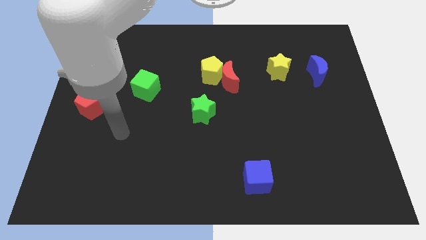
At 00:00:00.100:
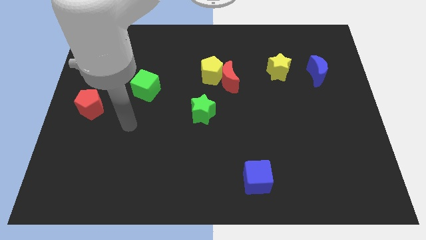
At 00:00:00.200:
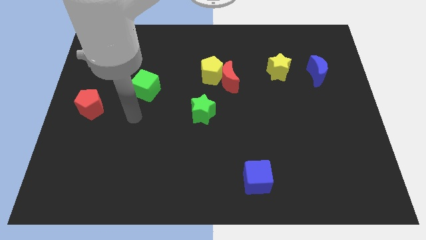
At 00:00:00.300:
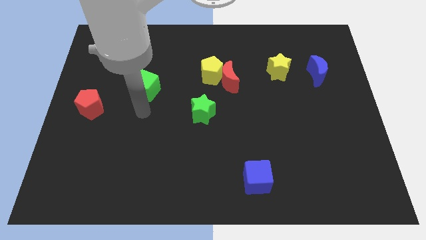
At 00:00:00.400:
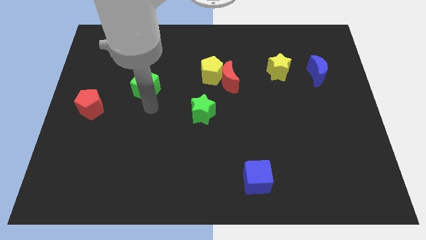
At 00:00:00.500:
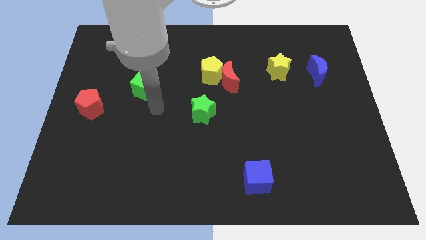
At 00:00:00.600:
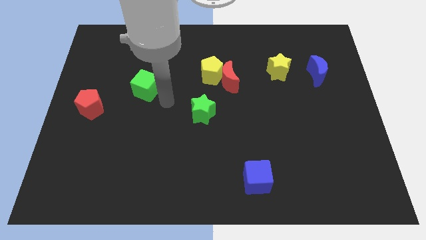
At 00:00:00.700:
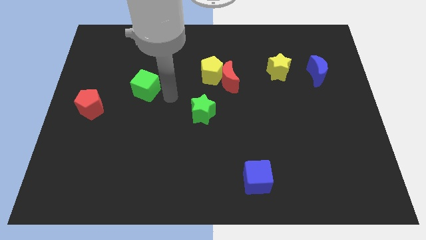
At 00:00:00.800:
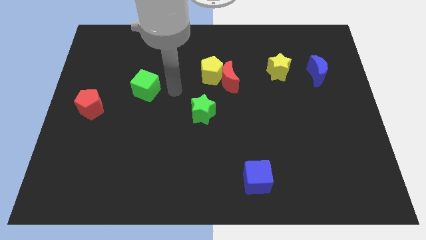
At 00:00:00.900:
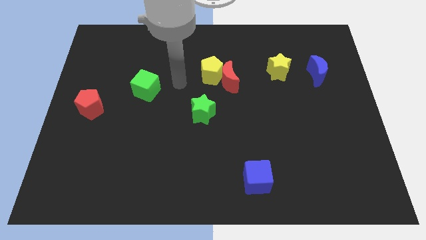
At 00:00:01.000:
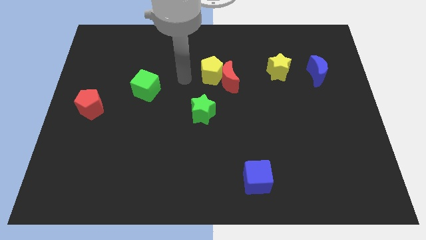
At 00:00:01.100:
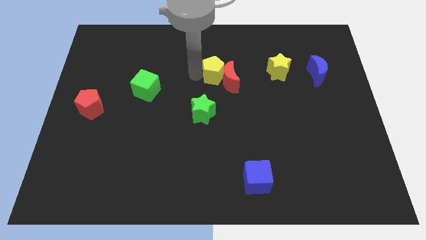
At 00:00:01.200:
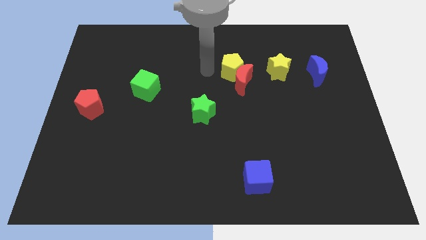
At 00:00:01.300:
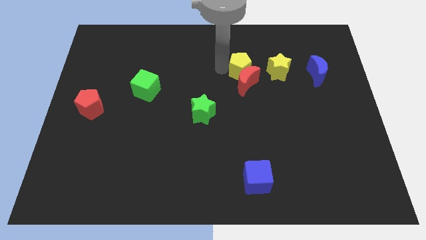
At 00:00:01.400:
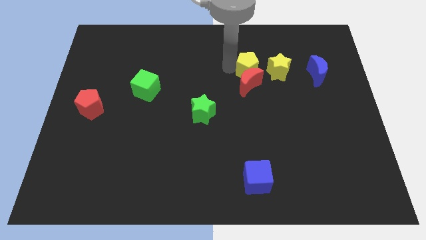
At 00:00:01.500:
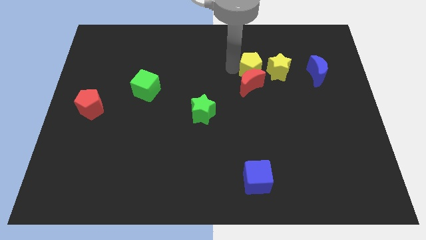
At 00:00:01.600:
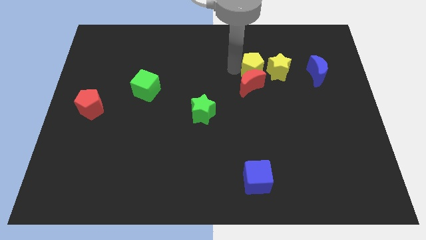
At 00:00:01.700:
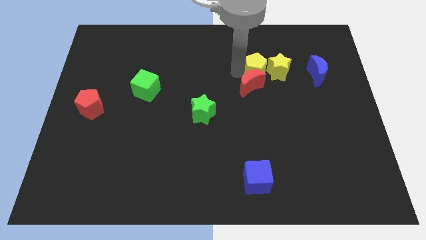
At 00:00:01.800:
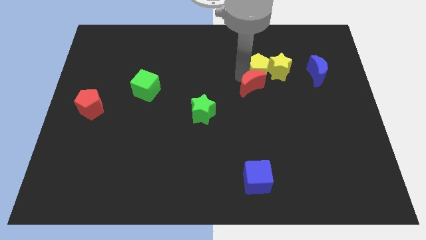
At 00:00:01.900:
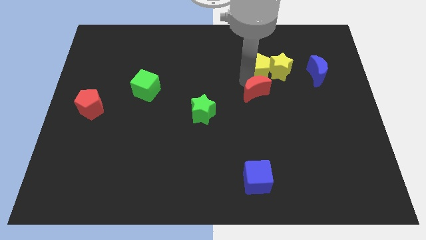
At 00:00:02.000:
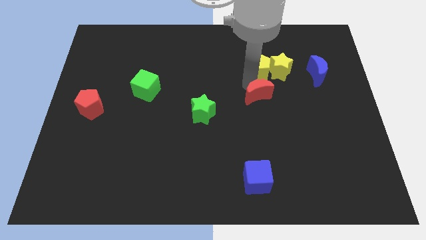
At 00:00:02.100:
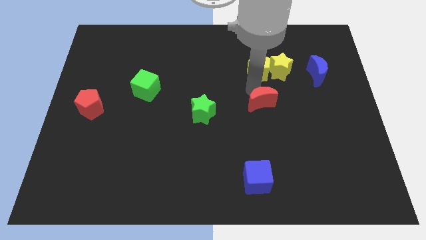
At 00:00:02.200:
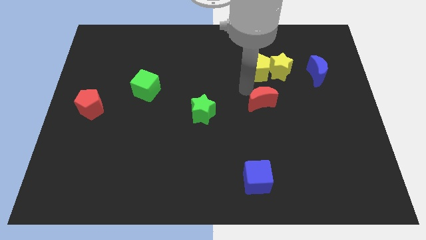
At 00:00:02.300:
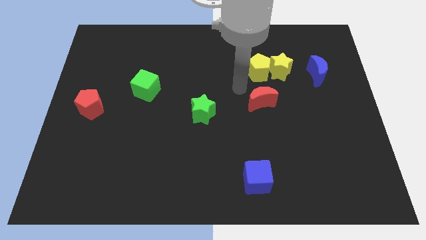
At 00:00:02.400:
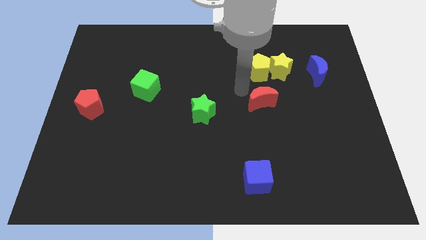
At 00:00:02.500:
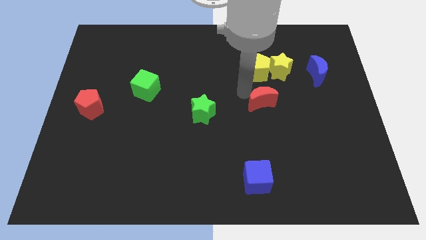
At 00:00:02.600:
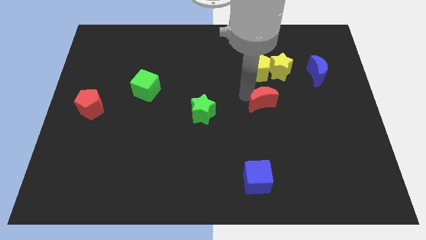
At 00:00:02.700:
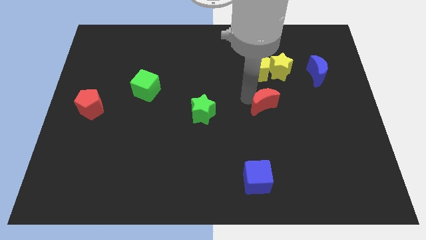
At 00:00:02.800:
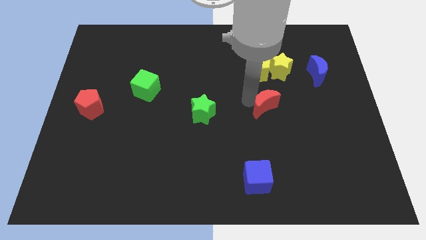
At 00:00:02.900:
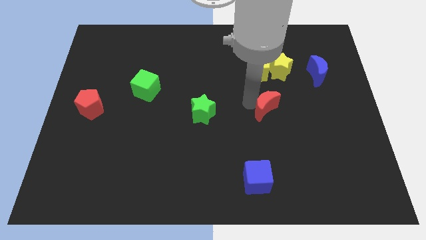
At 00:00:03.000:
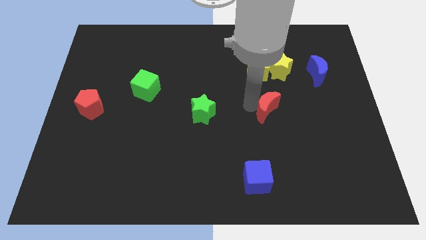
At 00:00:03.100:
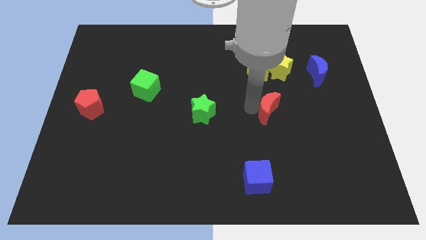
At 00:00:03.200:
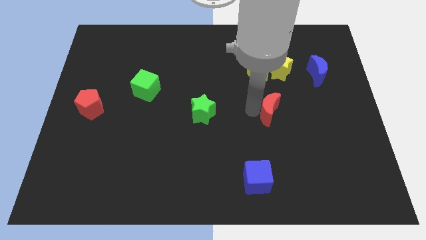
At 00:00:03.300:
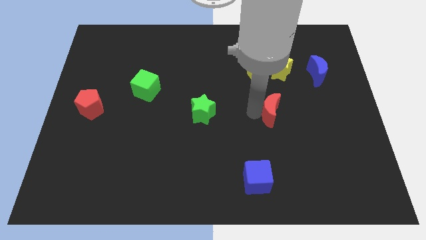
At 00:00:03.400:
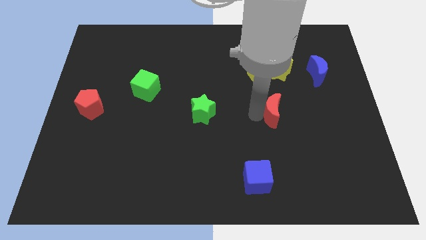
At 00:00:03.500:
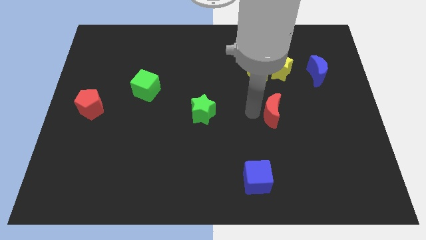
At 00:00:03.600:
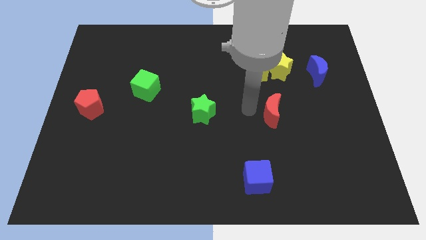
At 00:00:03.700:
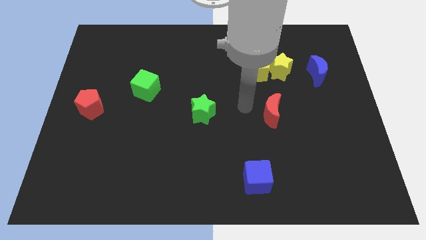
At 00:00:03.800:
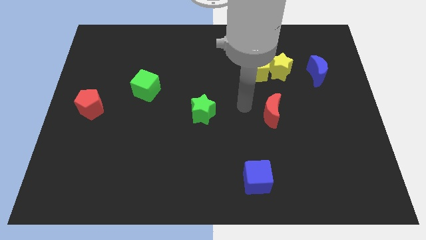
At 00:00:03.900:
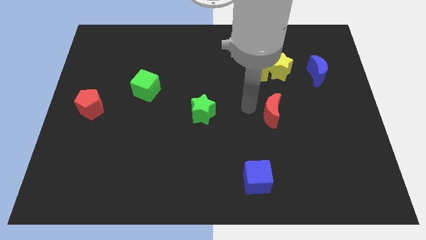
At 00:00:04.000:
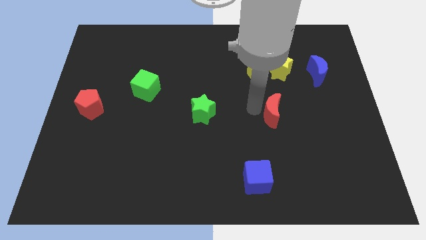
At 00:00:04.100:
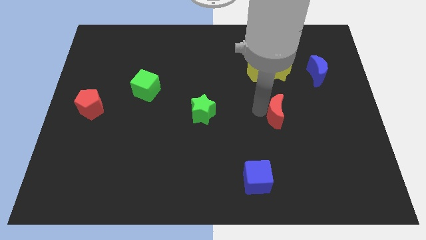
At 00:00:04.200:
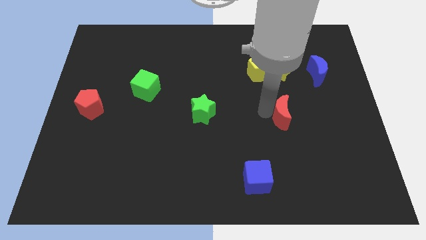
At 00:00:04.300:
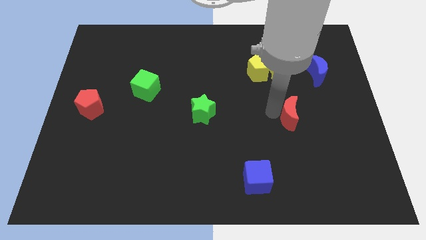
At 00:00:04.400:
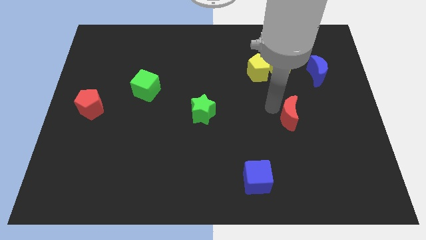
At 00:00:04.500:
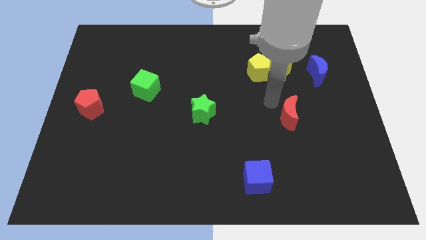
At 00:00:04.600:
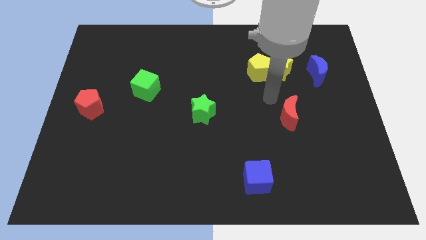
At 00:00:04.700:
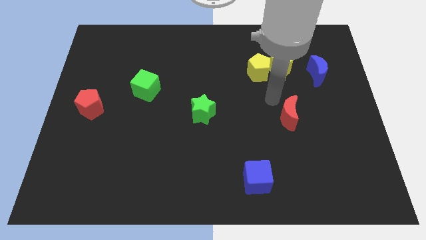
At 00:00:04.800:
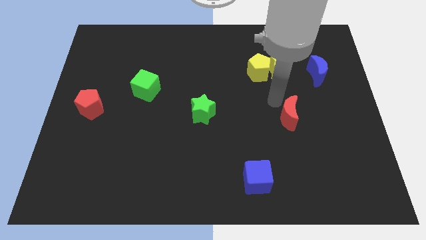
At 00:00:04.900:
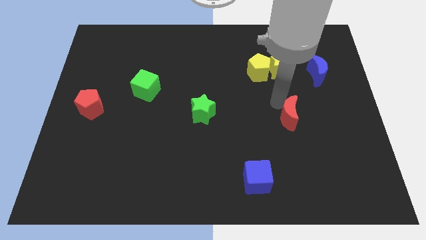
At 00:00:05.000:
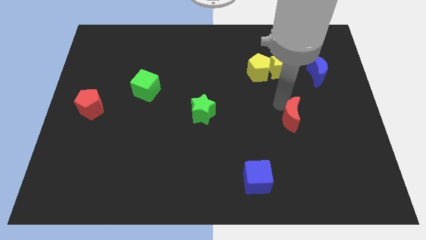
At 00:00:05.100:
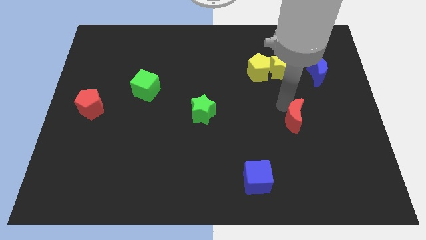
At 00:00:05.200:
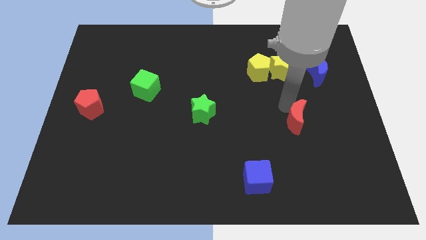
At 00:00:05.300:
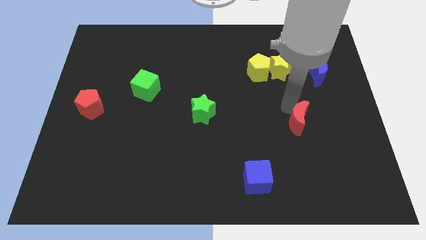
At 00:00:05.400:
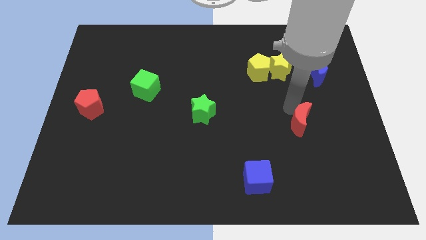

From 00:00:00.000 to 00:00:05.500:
slide the red moon downwards and right

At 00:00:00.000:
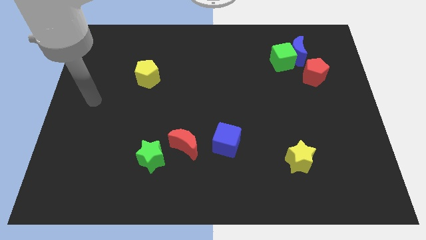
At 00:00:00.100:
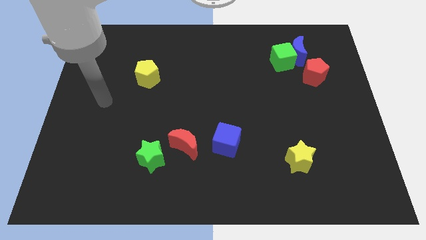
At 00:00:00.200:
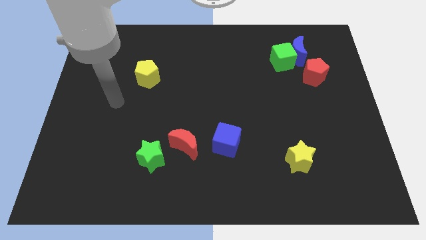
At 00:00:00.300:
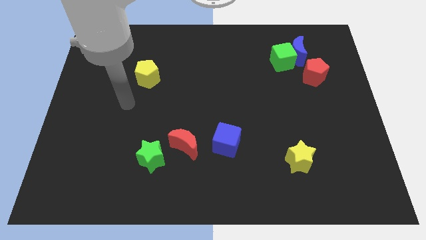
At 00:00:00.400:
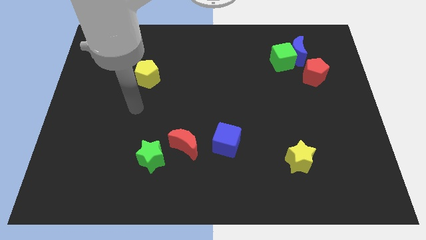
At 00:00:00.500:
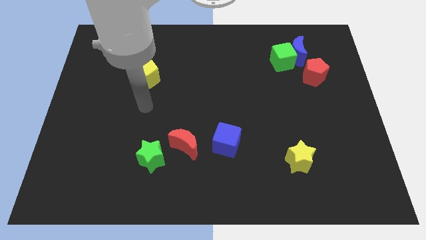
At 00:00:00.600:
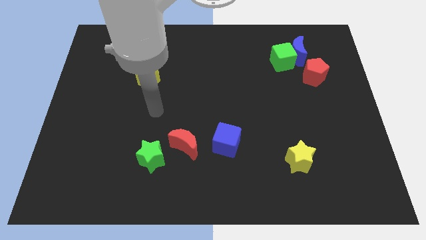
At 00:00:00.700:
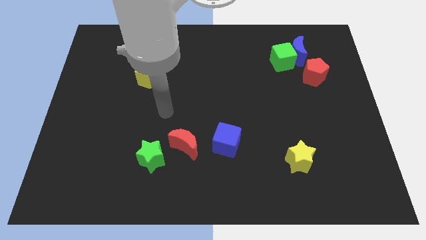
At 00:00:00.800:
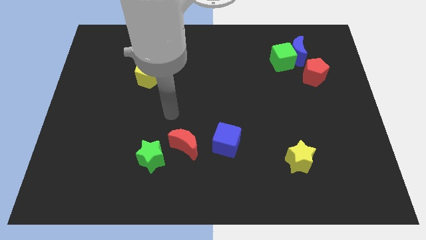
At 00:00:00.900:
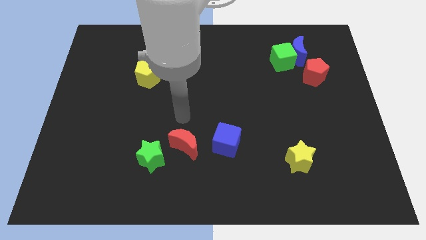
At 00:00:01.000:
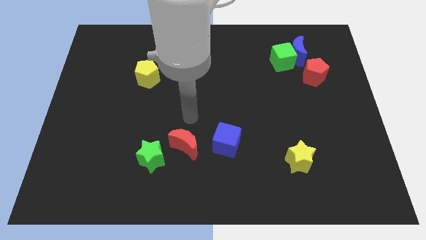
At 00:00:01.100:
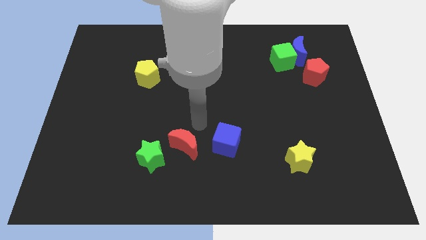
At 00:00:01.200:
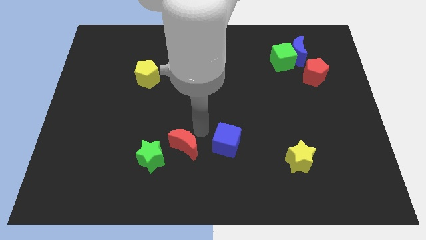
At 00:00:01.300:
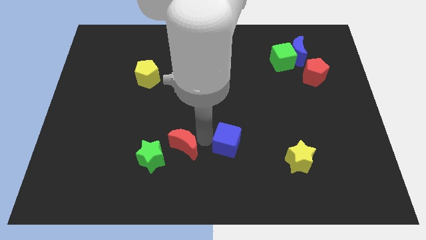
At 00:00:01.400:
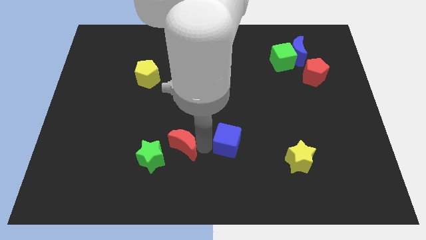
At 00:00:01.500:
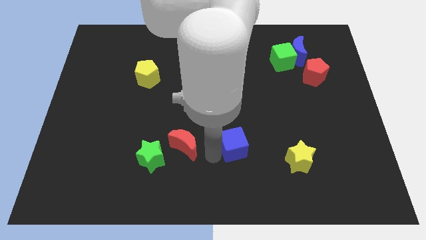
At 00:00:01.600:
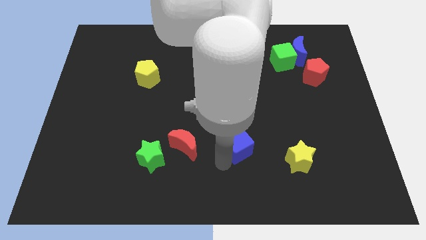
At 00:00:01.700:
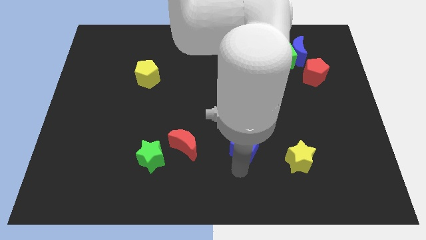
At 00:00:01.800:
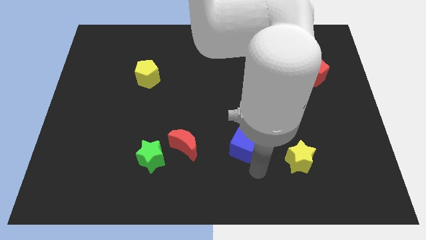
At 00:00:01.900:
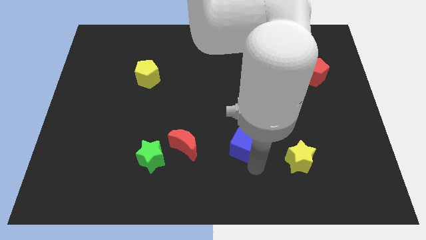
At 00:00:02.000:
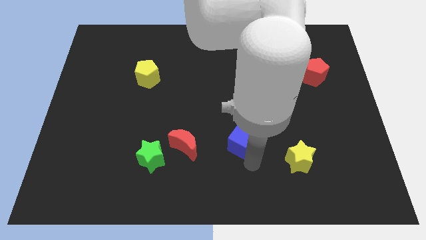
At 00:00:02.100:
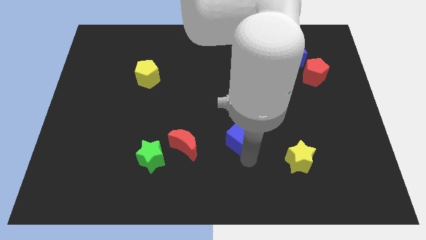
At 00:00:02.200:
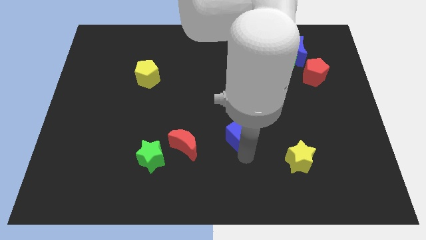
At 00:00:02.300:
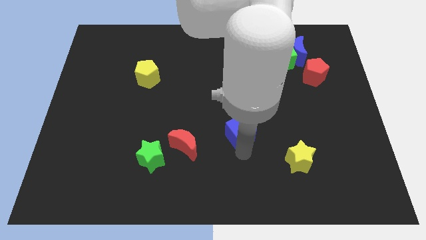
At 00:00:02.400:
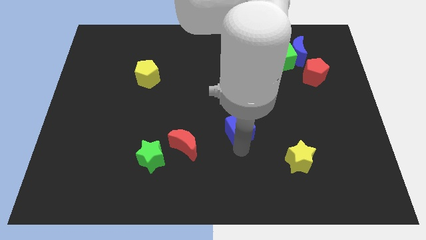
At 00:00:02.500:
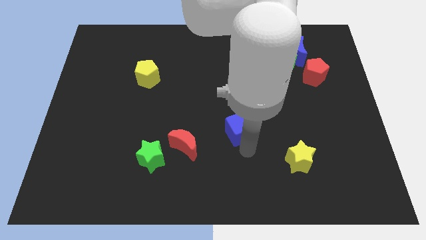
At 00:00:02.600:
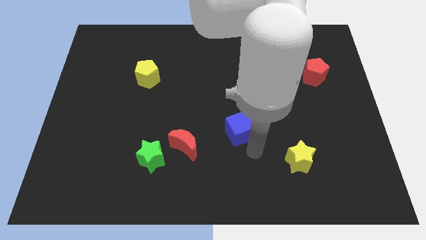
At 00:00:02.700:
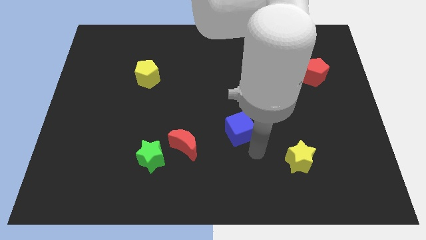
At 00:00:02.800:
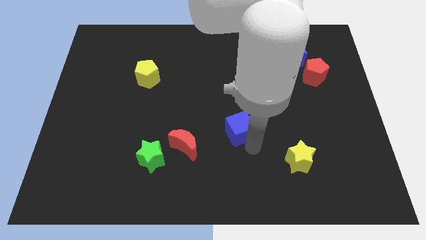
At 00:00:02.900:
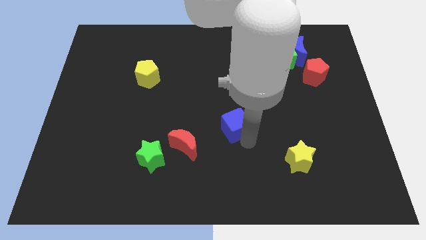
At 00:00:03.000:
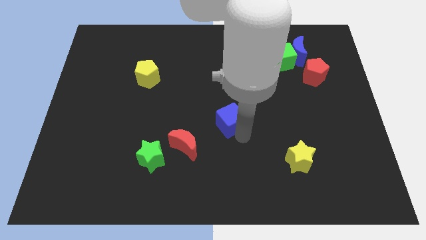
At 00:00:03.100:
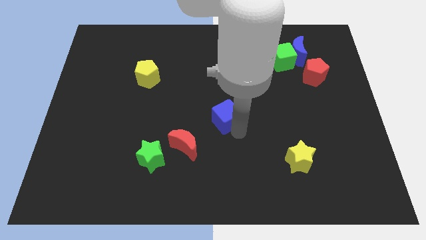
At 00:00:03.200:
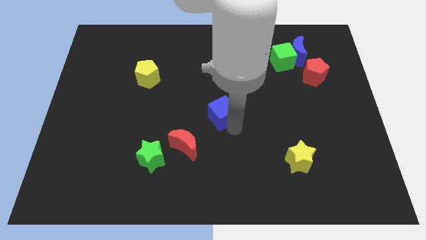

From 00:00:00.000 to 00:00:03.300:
move the blue cube upwards somewhat
